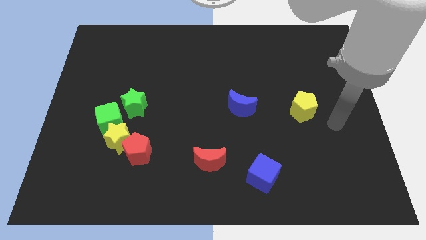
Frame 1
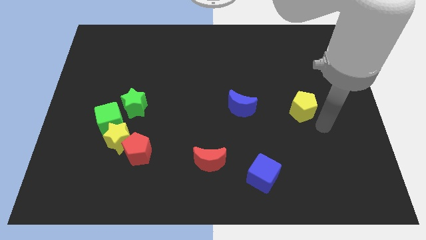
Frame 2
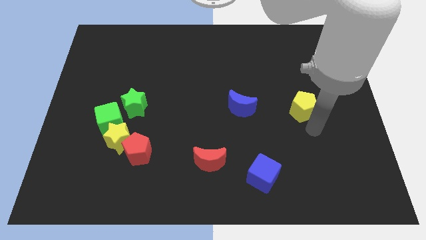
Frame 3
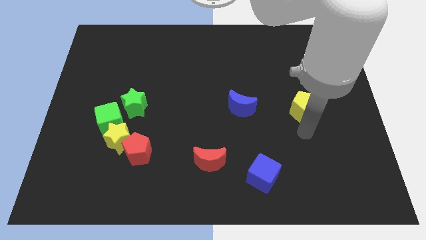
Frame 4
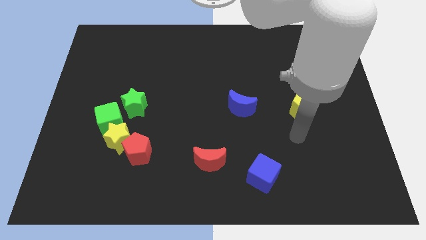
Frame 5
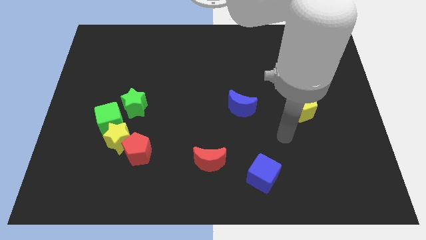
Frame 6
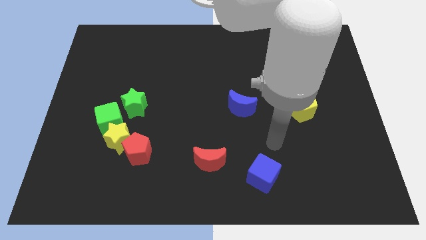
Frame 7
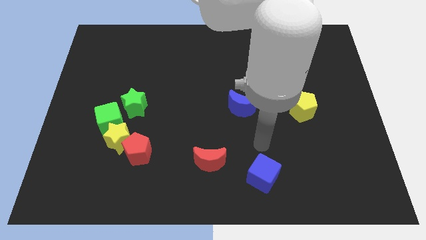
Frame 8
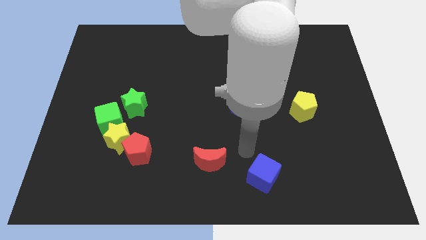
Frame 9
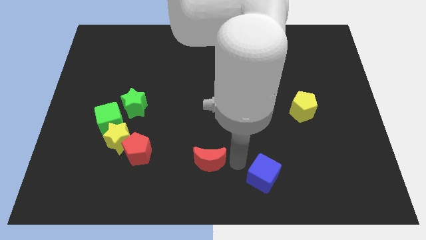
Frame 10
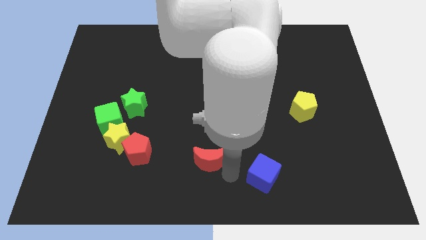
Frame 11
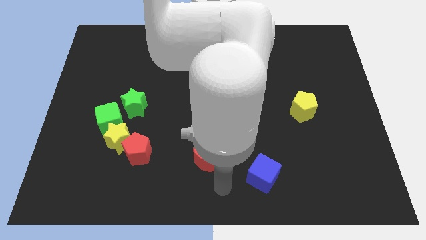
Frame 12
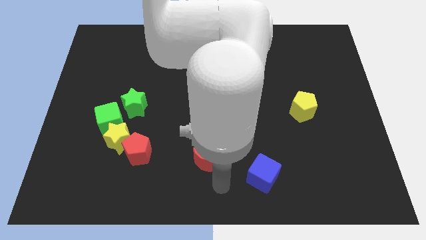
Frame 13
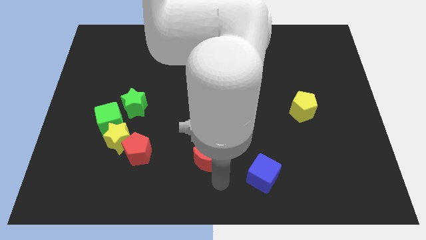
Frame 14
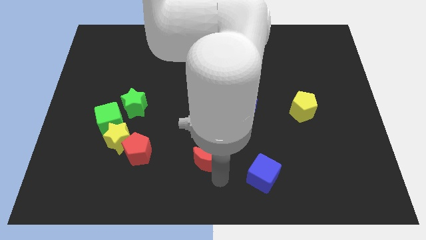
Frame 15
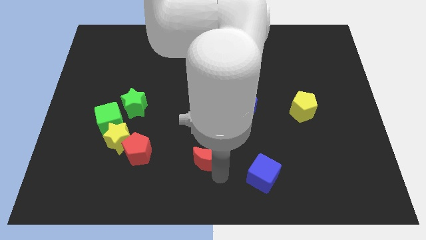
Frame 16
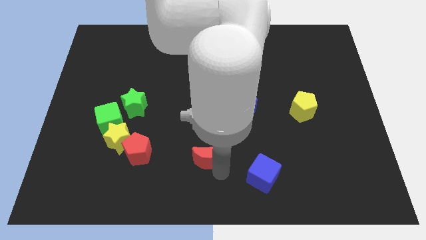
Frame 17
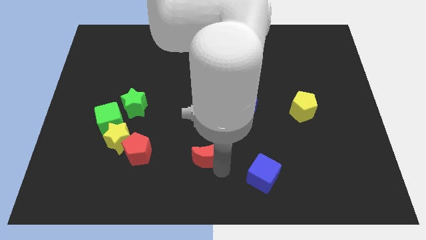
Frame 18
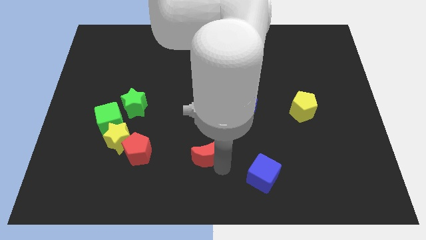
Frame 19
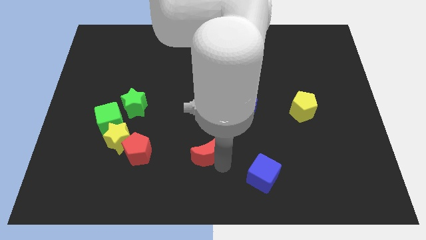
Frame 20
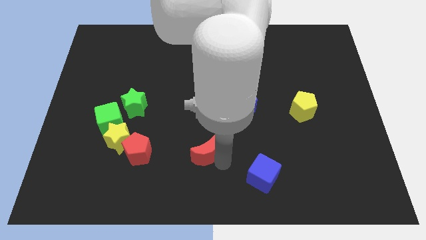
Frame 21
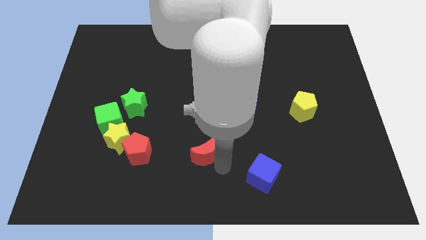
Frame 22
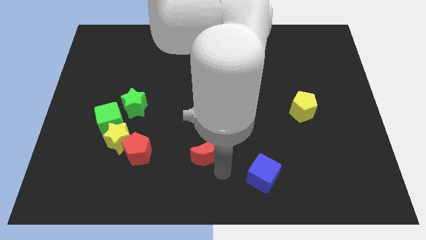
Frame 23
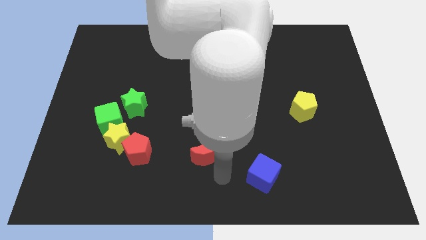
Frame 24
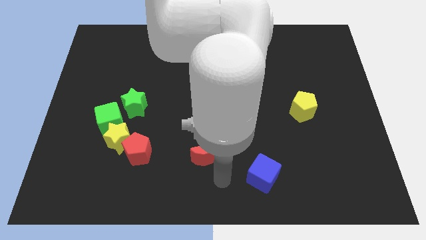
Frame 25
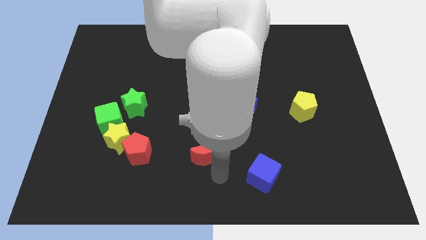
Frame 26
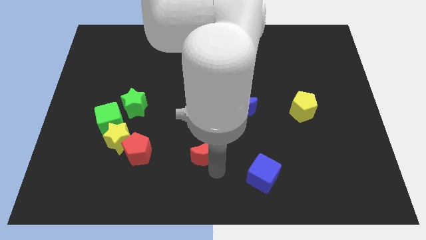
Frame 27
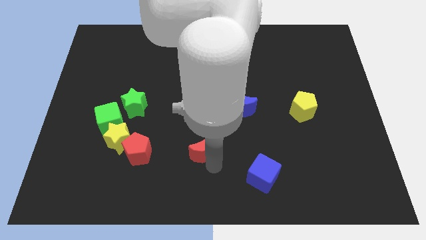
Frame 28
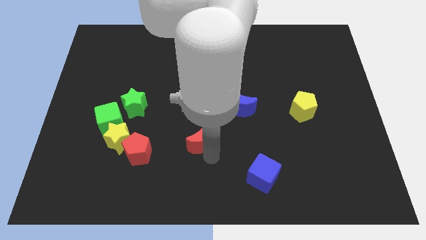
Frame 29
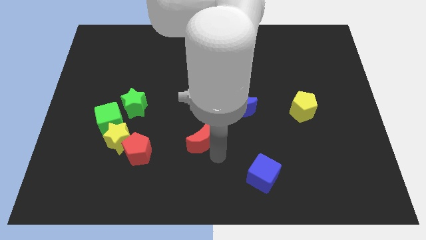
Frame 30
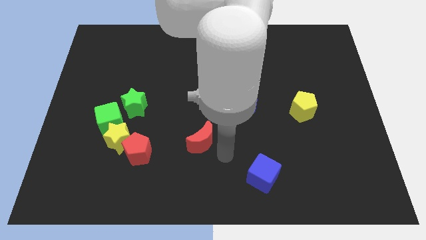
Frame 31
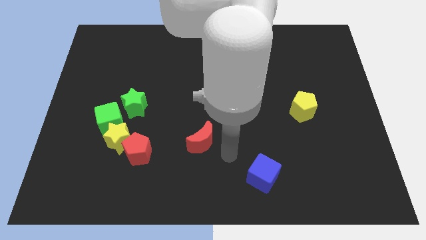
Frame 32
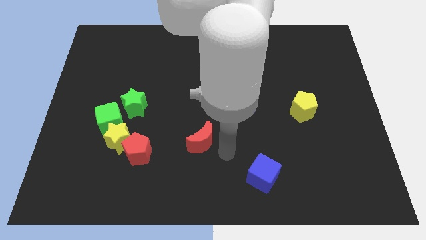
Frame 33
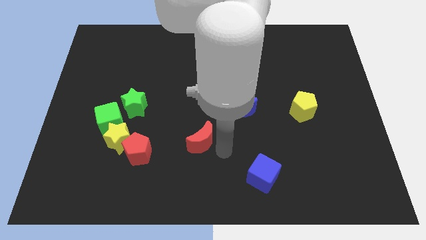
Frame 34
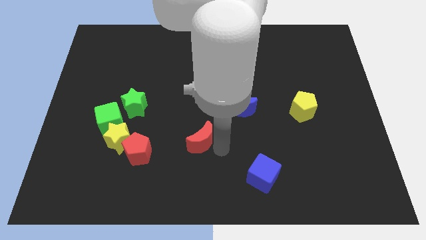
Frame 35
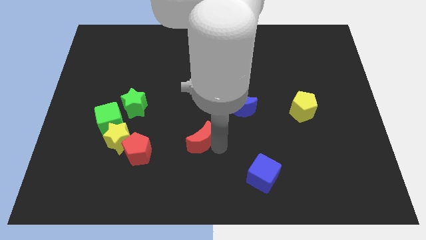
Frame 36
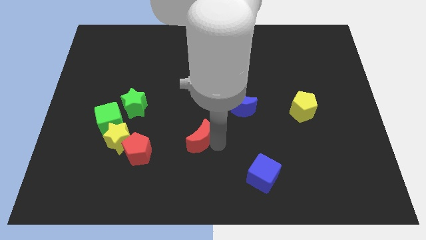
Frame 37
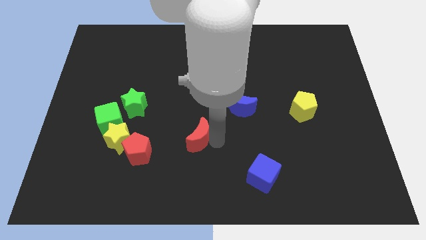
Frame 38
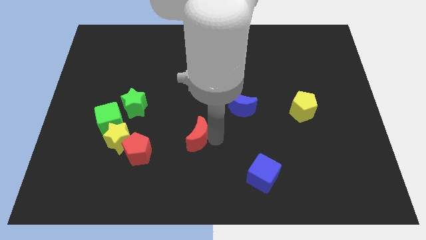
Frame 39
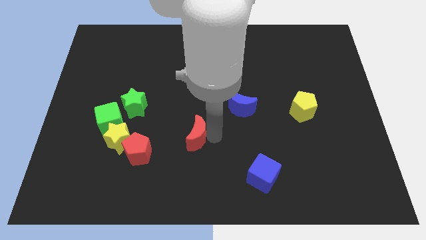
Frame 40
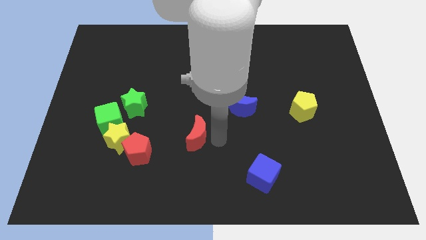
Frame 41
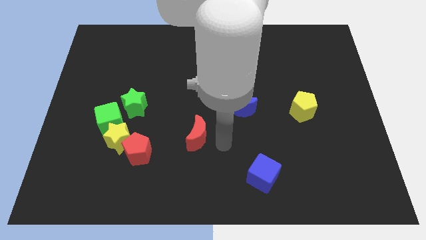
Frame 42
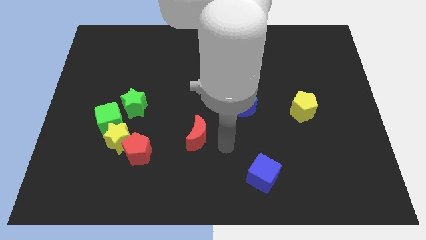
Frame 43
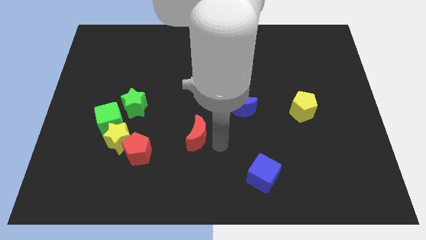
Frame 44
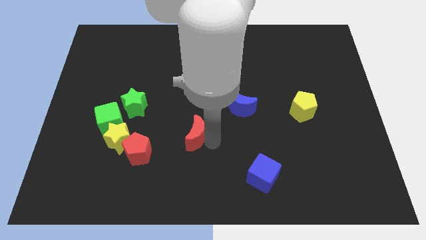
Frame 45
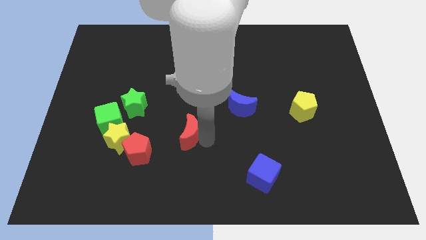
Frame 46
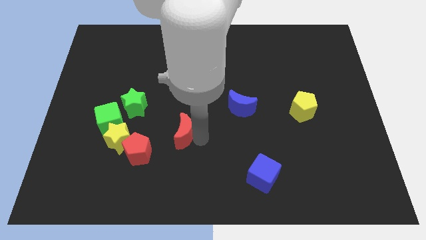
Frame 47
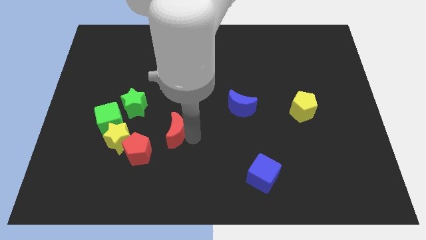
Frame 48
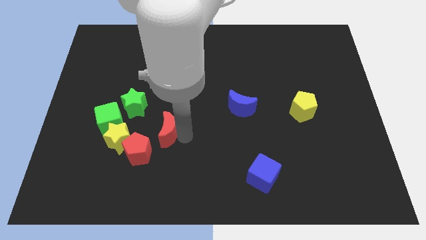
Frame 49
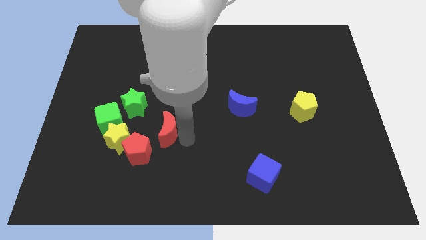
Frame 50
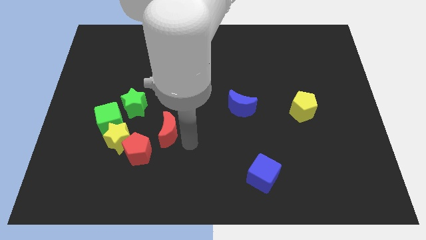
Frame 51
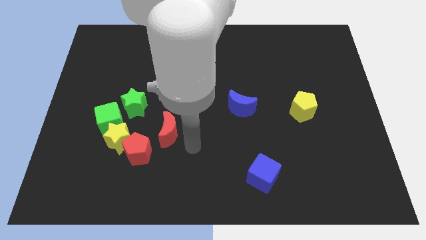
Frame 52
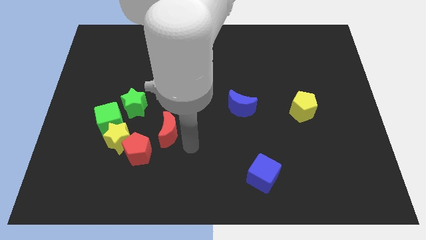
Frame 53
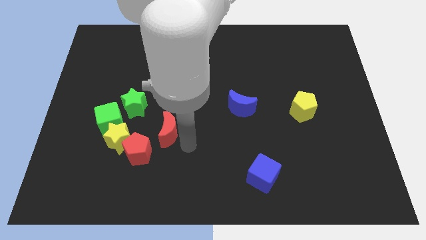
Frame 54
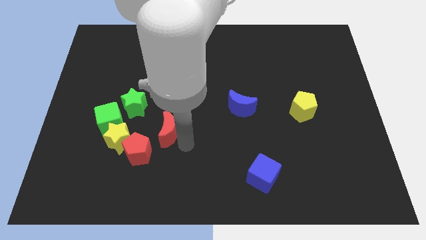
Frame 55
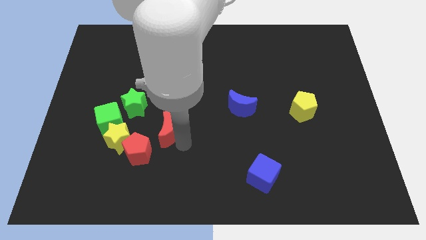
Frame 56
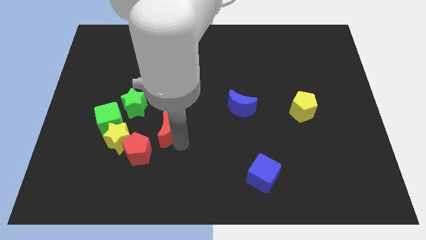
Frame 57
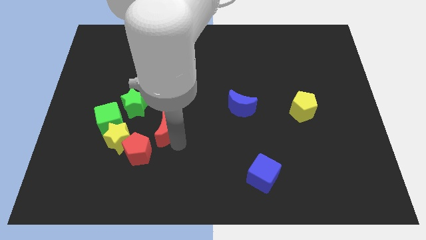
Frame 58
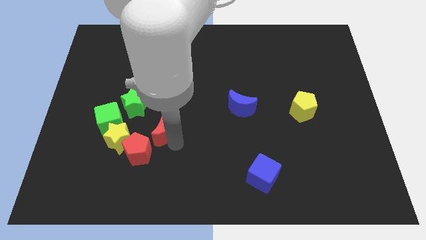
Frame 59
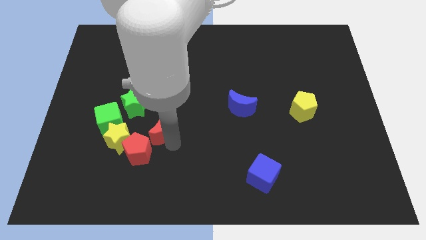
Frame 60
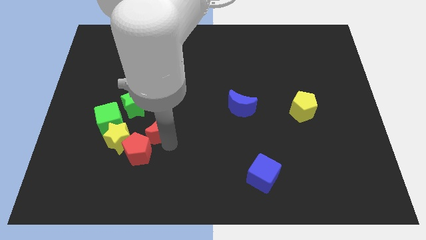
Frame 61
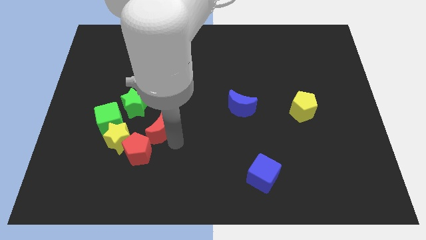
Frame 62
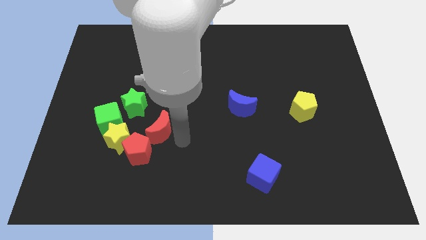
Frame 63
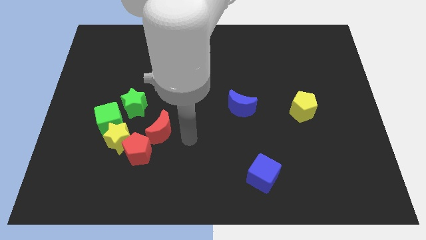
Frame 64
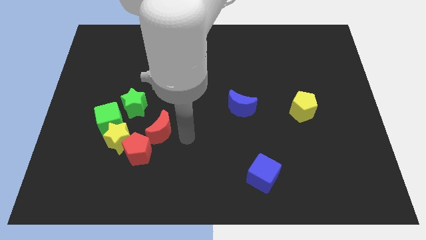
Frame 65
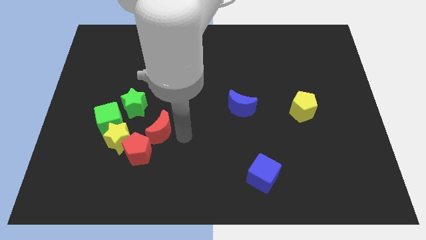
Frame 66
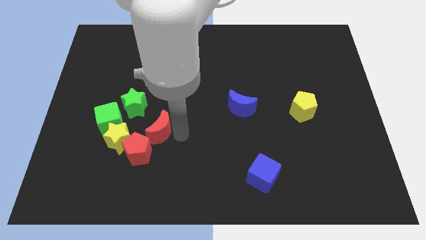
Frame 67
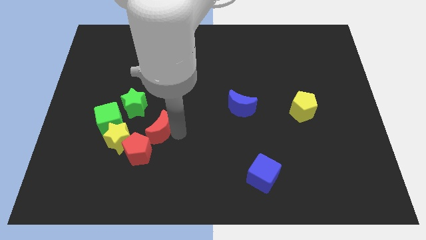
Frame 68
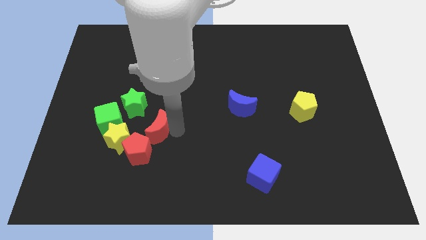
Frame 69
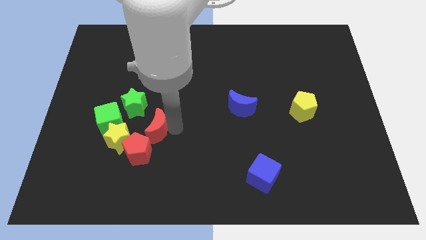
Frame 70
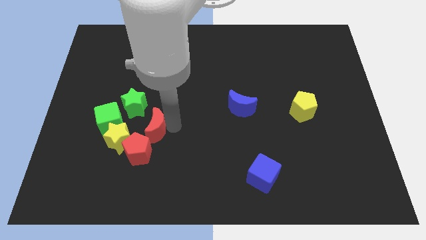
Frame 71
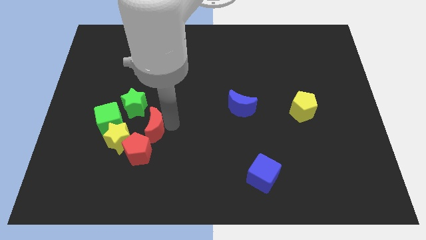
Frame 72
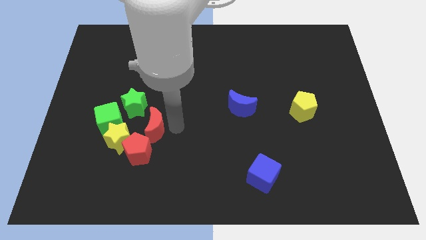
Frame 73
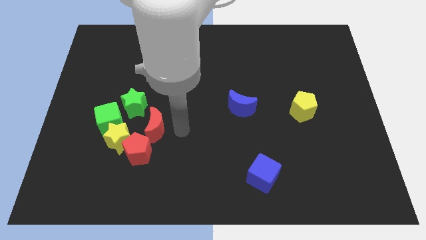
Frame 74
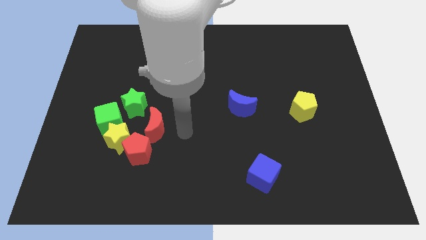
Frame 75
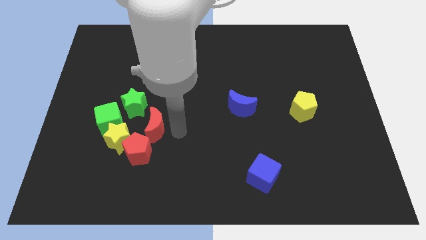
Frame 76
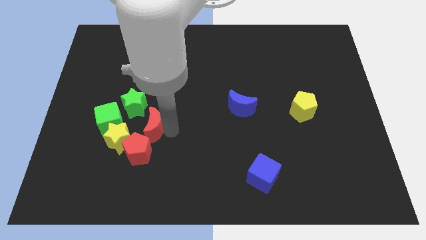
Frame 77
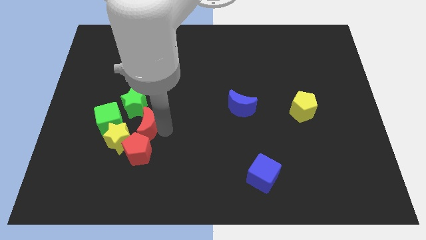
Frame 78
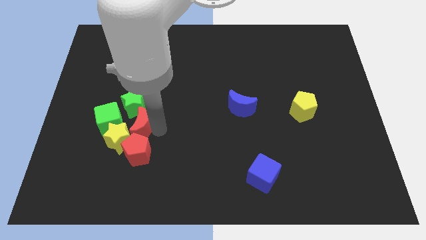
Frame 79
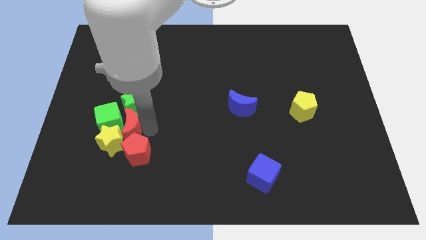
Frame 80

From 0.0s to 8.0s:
put the red moon close to the green cube
